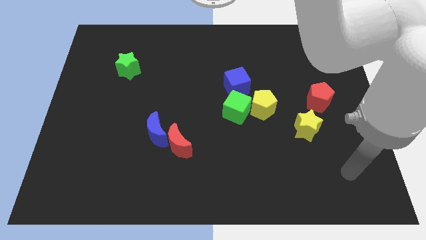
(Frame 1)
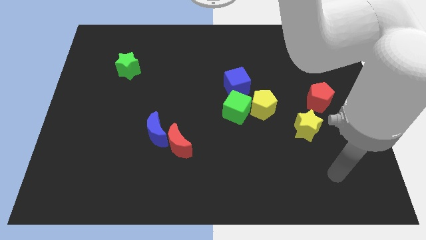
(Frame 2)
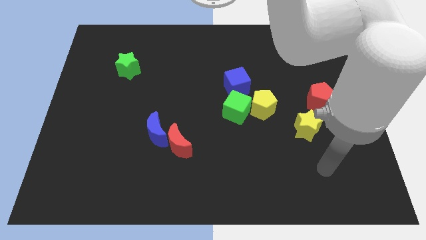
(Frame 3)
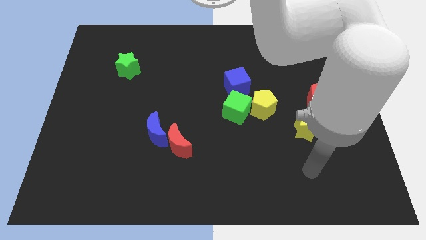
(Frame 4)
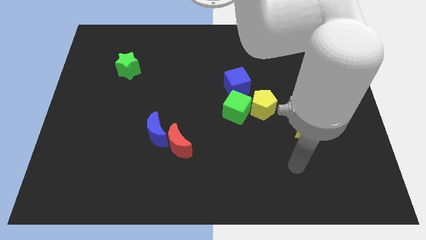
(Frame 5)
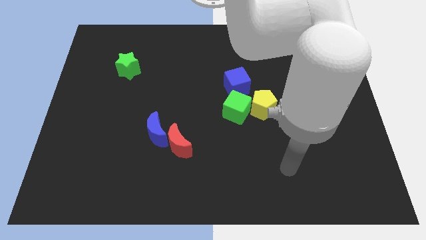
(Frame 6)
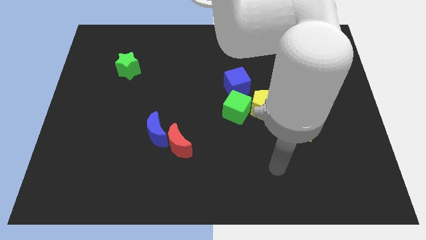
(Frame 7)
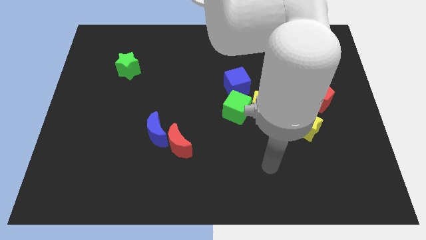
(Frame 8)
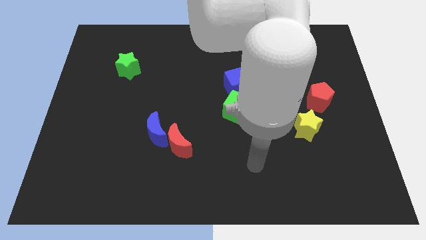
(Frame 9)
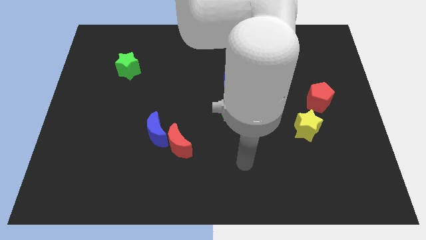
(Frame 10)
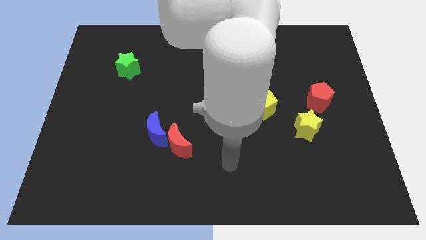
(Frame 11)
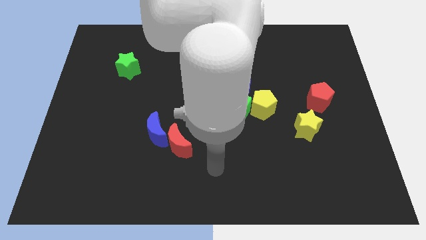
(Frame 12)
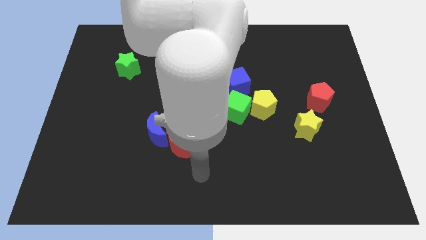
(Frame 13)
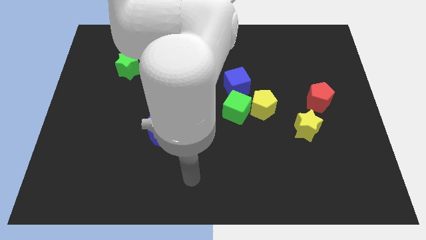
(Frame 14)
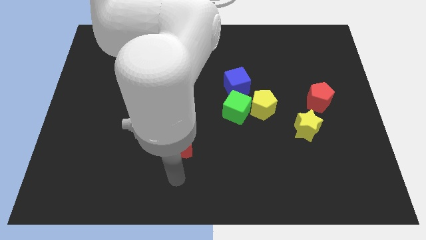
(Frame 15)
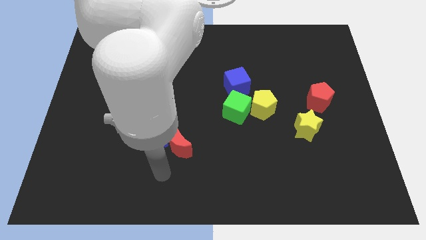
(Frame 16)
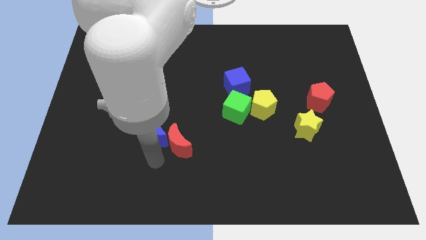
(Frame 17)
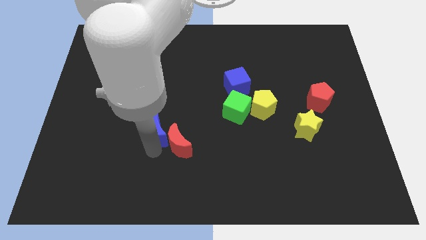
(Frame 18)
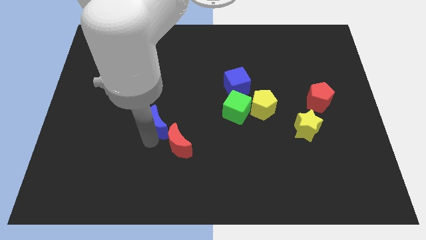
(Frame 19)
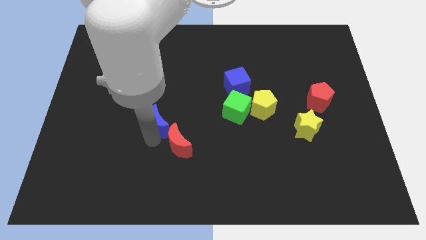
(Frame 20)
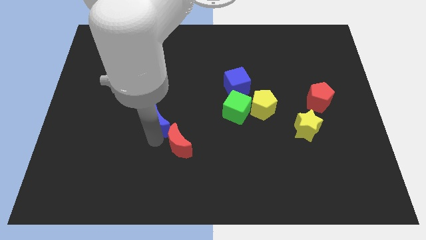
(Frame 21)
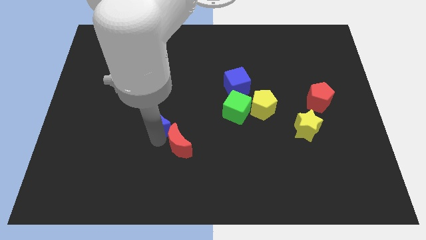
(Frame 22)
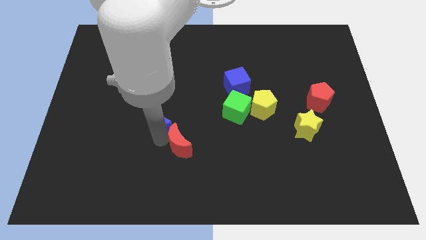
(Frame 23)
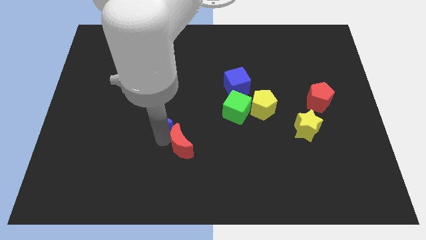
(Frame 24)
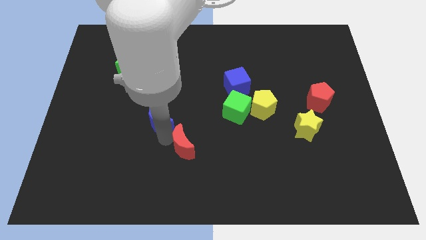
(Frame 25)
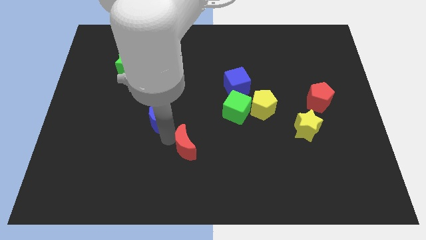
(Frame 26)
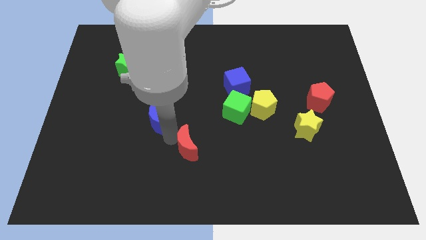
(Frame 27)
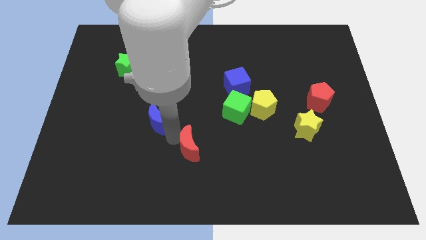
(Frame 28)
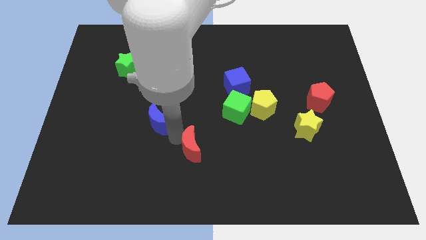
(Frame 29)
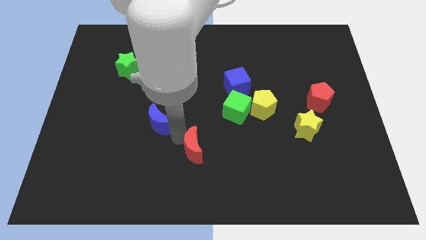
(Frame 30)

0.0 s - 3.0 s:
move the red moon away from the blue moon

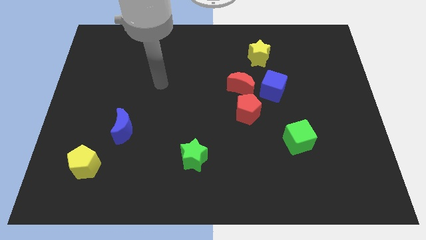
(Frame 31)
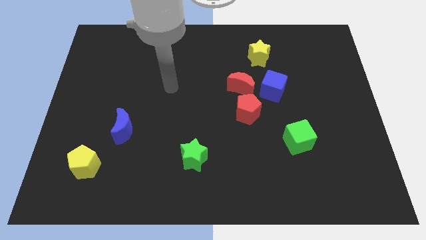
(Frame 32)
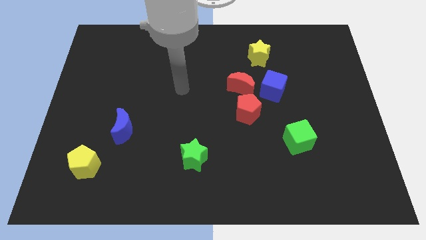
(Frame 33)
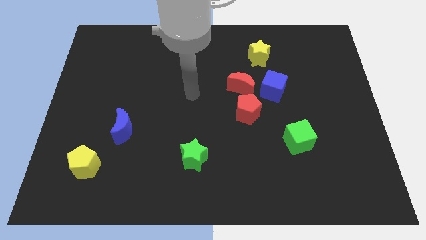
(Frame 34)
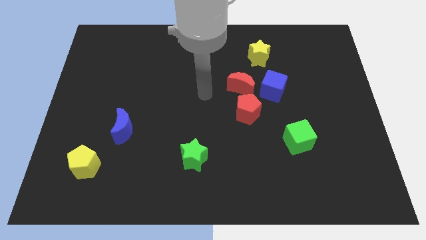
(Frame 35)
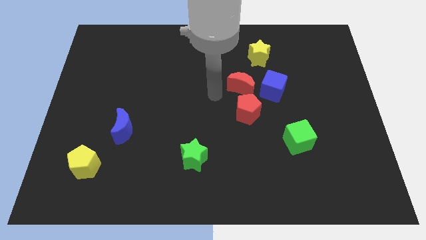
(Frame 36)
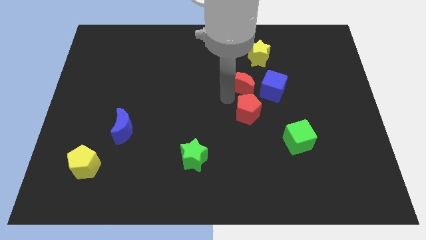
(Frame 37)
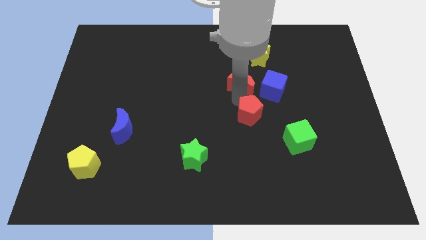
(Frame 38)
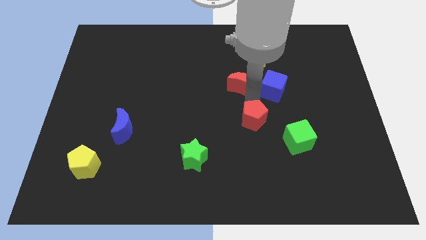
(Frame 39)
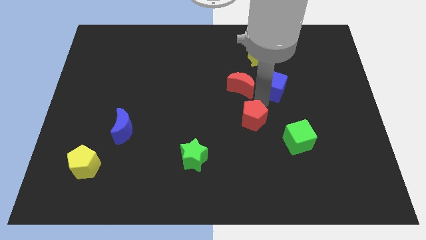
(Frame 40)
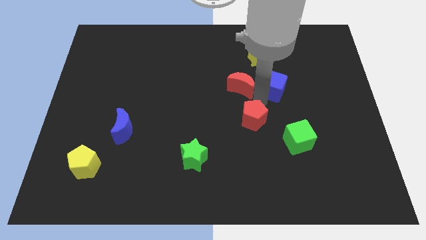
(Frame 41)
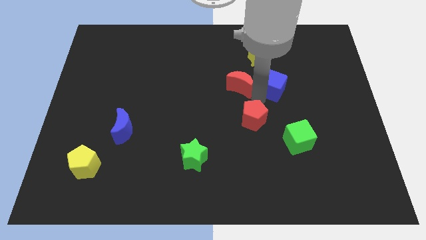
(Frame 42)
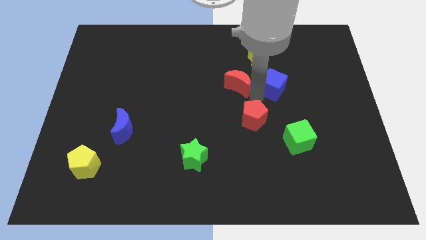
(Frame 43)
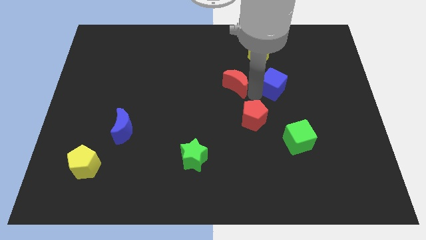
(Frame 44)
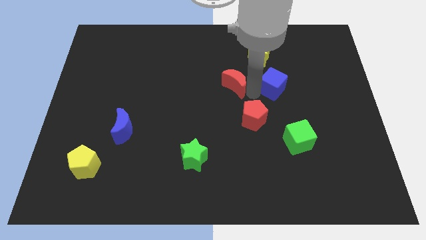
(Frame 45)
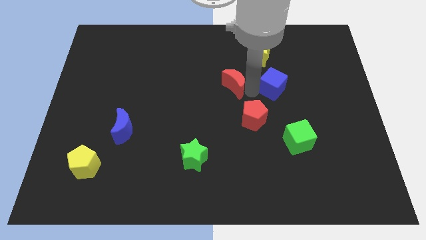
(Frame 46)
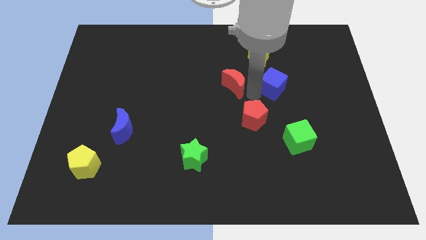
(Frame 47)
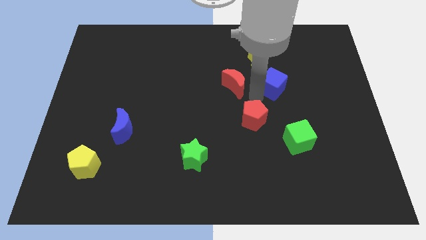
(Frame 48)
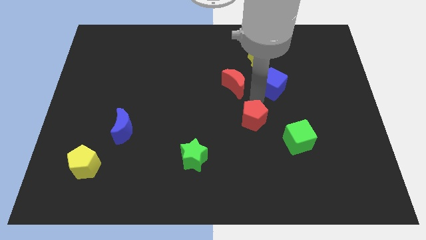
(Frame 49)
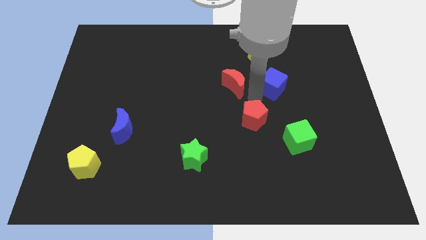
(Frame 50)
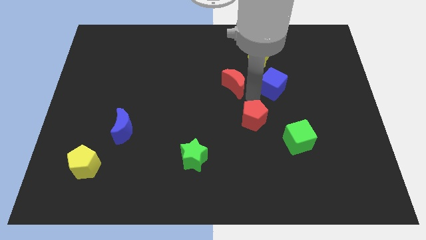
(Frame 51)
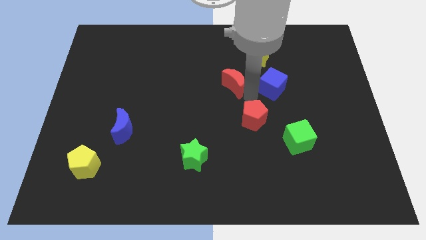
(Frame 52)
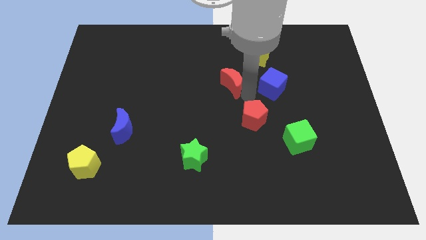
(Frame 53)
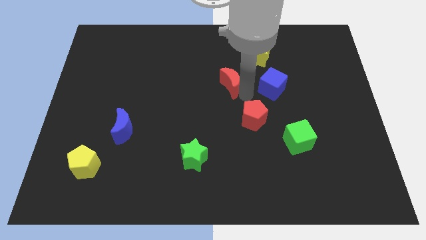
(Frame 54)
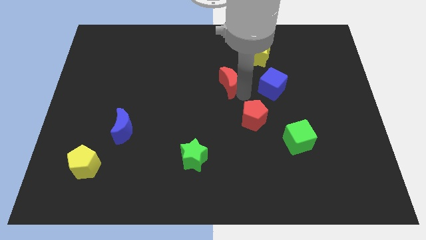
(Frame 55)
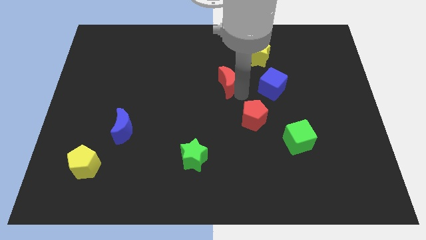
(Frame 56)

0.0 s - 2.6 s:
separate the red moon from the blue cube and red pentagon

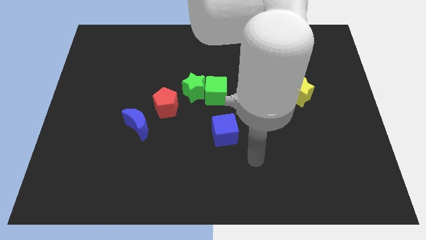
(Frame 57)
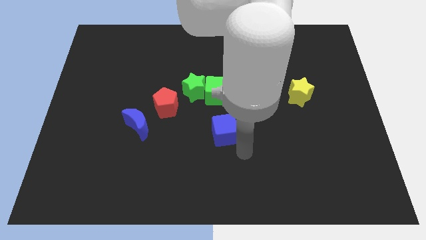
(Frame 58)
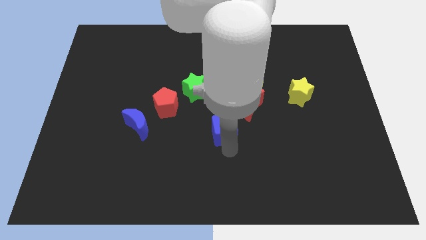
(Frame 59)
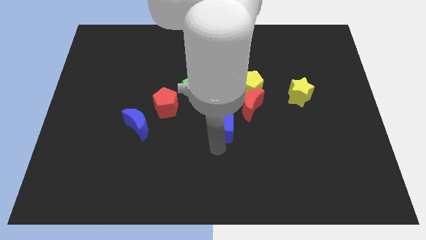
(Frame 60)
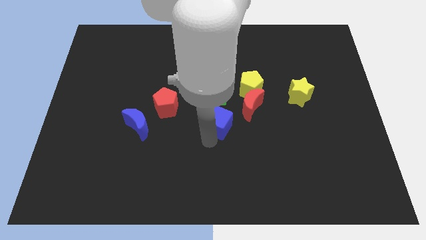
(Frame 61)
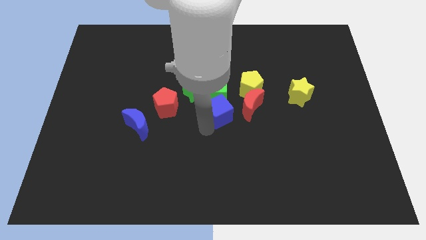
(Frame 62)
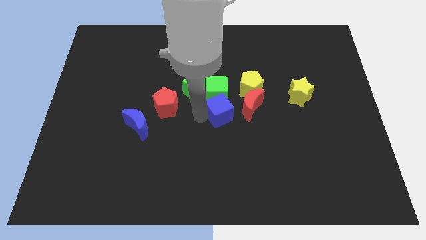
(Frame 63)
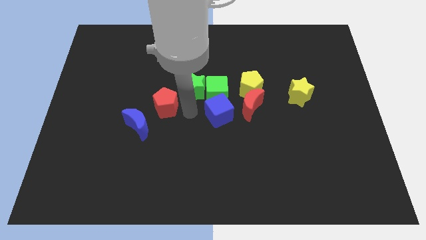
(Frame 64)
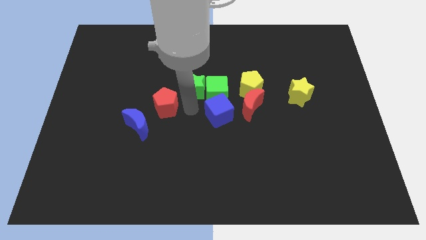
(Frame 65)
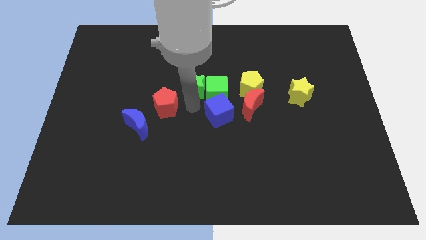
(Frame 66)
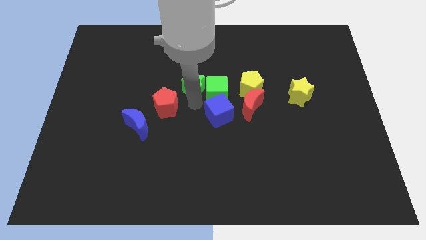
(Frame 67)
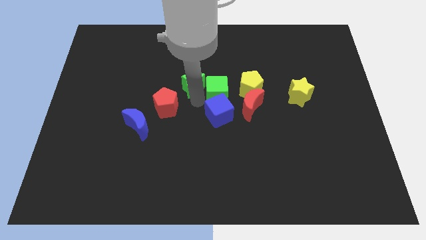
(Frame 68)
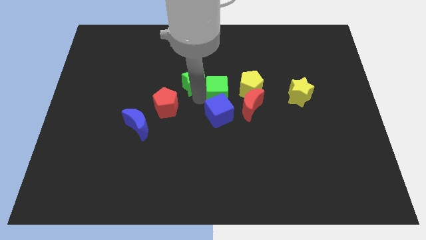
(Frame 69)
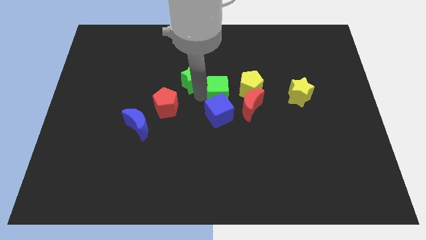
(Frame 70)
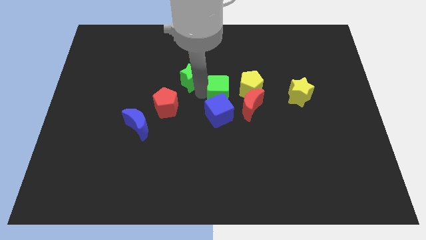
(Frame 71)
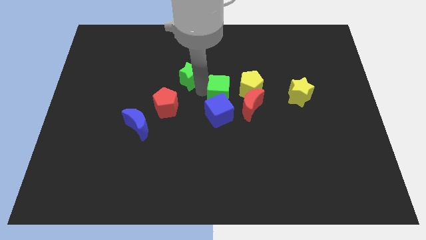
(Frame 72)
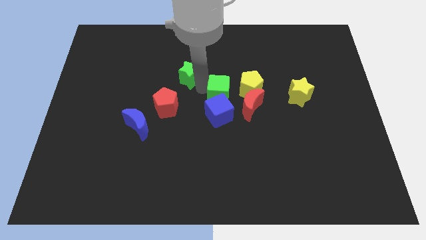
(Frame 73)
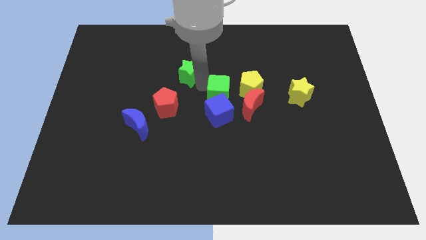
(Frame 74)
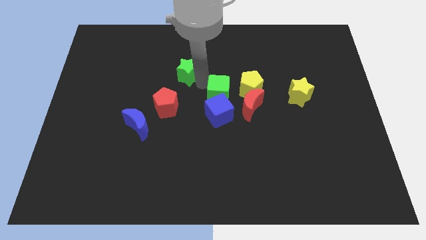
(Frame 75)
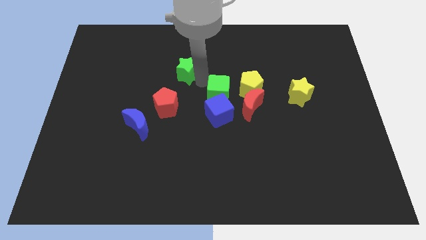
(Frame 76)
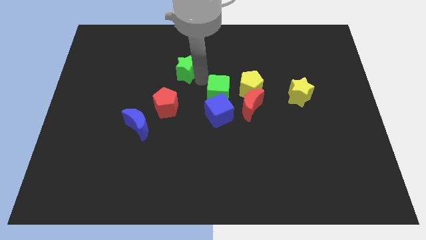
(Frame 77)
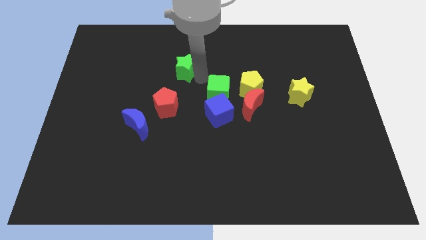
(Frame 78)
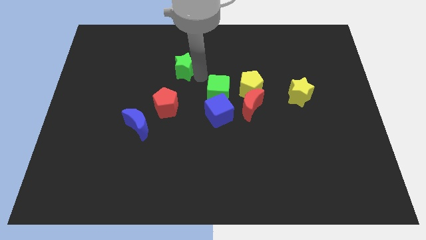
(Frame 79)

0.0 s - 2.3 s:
pull the green star apart from the green cube and red pentagon

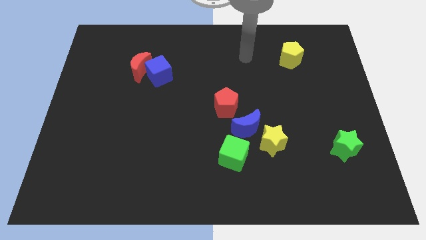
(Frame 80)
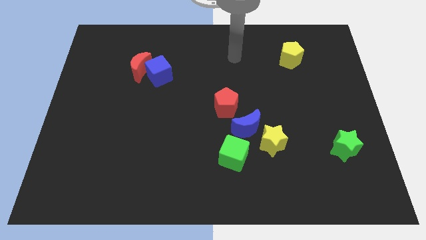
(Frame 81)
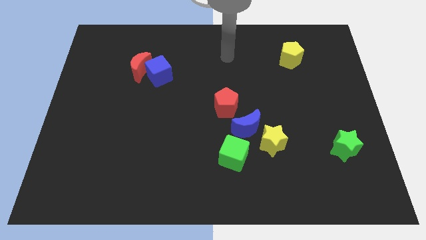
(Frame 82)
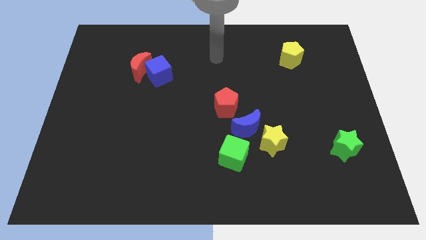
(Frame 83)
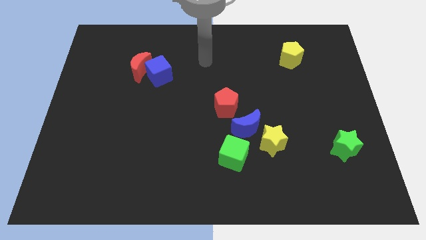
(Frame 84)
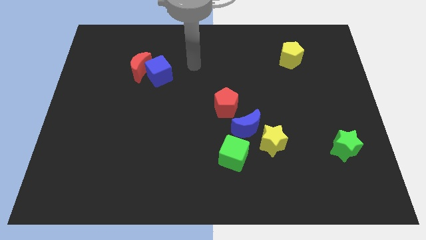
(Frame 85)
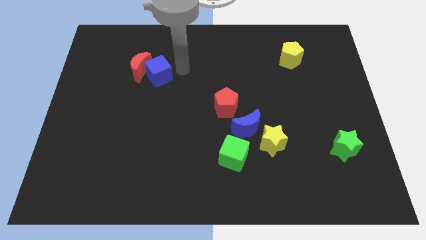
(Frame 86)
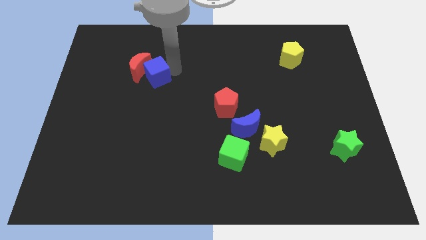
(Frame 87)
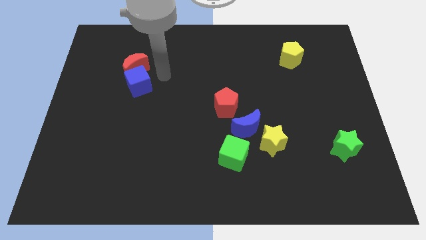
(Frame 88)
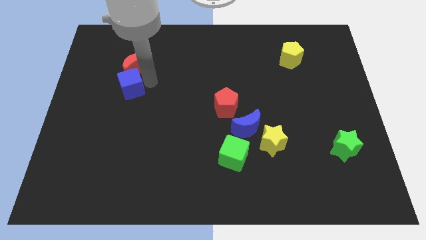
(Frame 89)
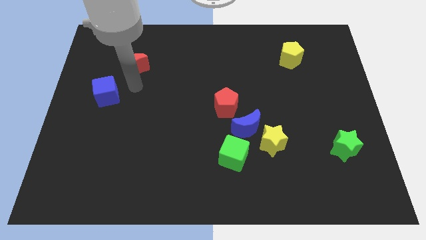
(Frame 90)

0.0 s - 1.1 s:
pull the red moon apart from the blue cube

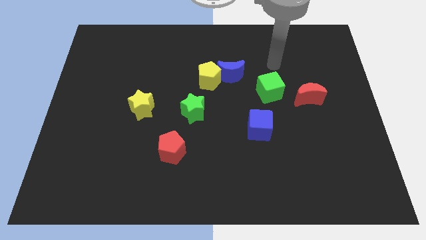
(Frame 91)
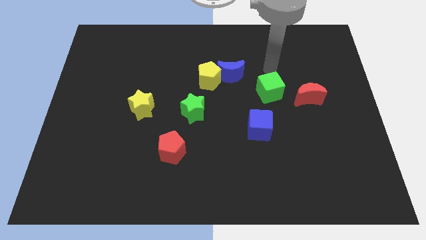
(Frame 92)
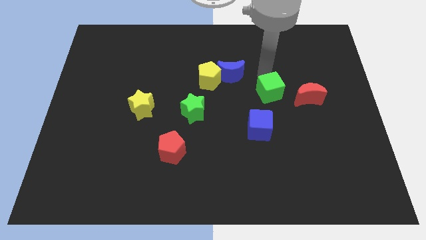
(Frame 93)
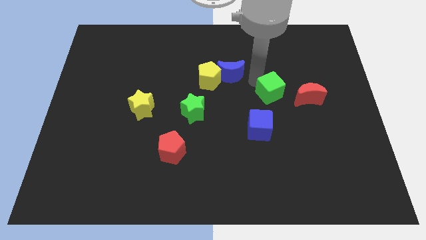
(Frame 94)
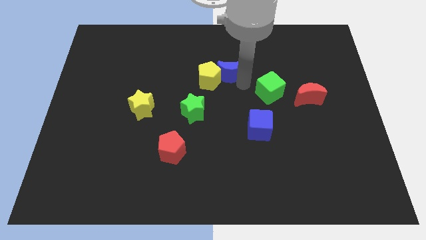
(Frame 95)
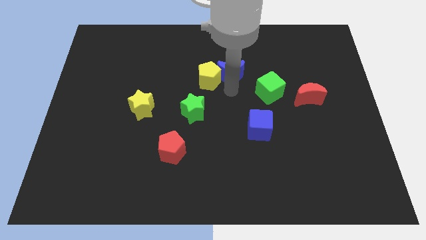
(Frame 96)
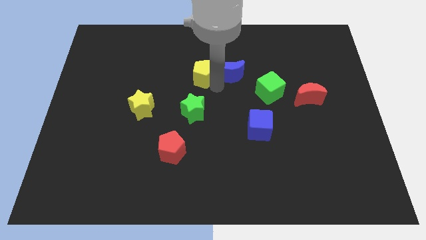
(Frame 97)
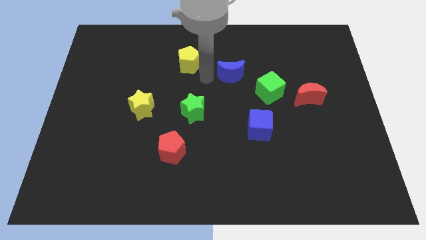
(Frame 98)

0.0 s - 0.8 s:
separate the blue moon from the yellow pentagon
